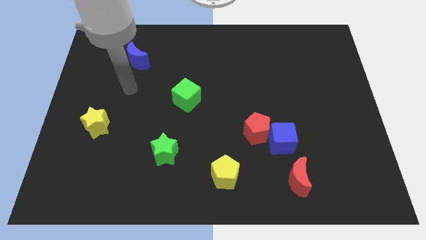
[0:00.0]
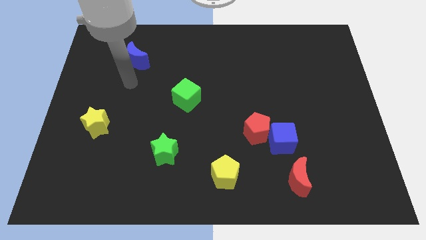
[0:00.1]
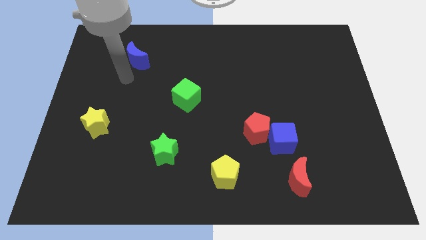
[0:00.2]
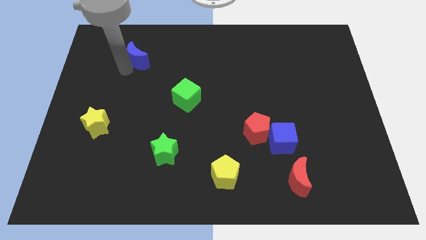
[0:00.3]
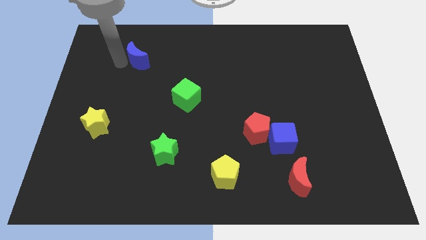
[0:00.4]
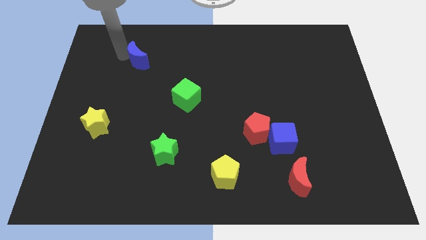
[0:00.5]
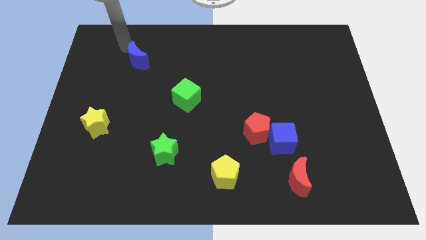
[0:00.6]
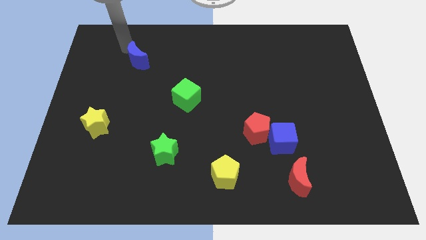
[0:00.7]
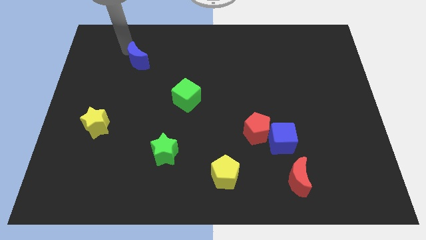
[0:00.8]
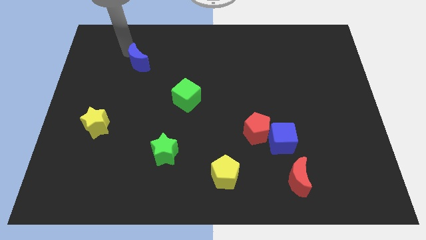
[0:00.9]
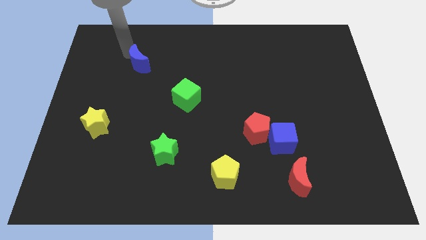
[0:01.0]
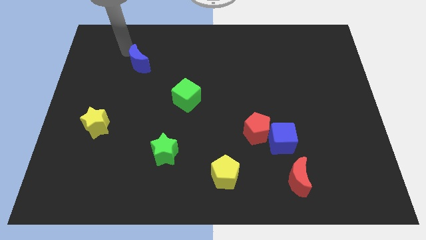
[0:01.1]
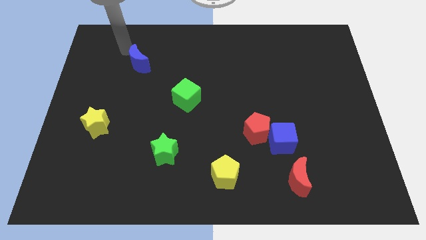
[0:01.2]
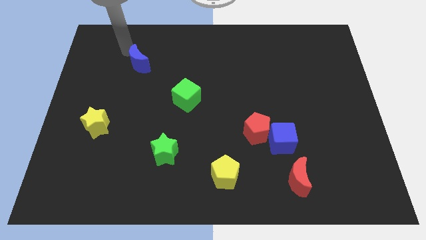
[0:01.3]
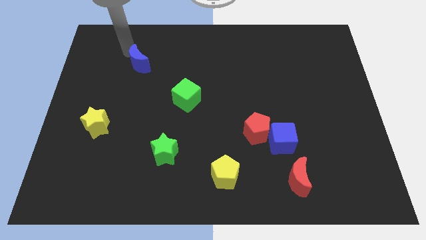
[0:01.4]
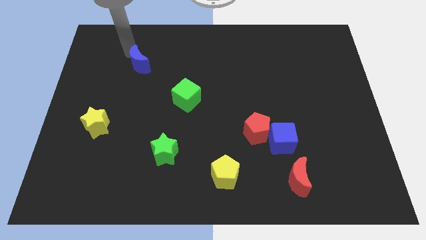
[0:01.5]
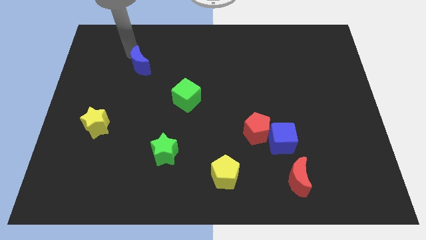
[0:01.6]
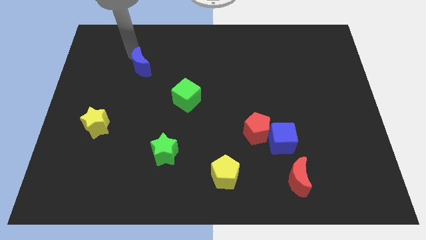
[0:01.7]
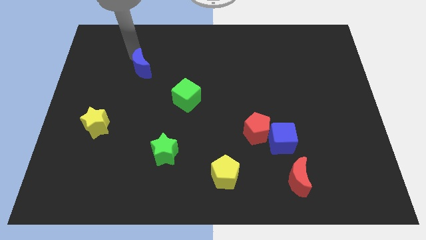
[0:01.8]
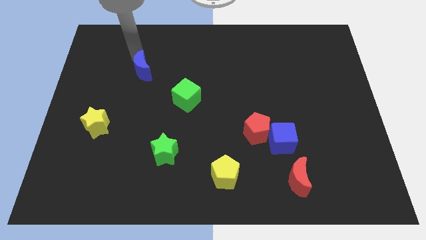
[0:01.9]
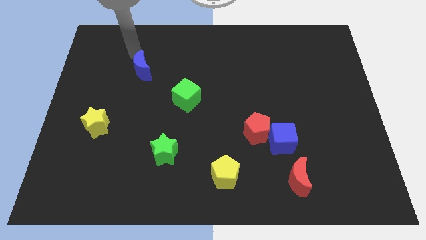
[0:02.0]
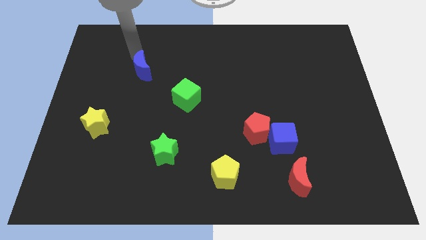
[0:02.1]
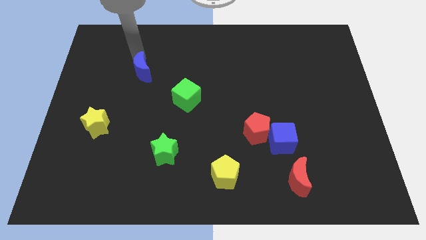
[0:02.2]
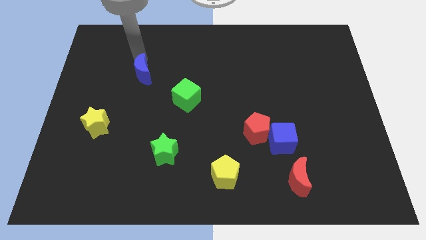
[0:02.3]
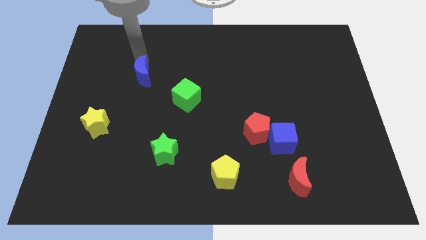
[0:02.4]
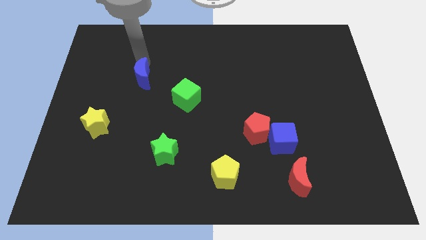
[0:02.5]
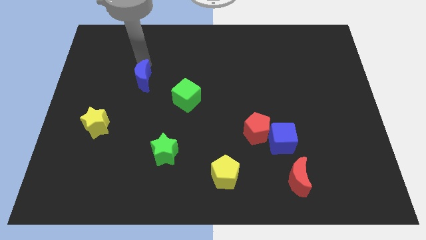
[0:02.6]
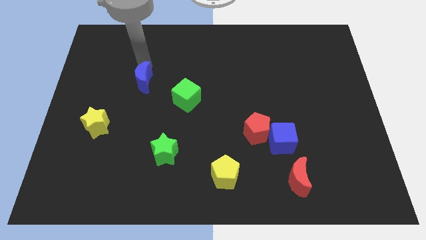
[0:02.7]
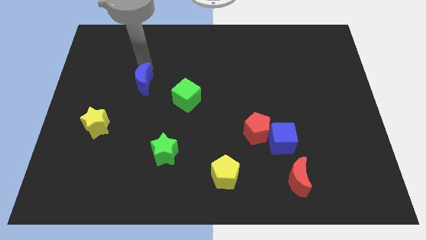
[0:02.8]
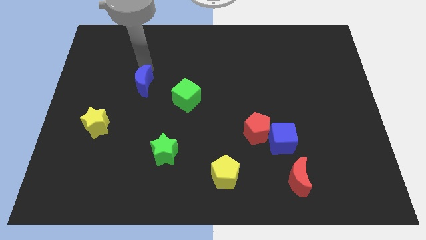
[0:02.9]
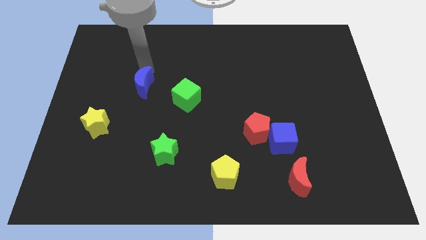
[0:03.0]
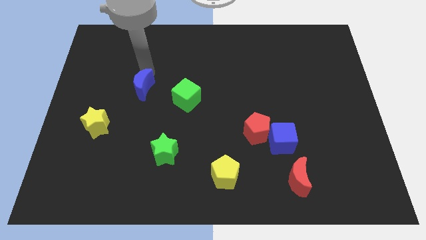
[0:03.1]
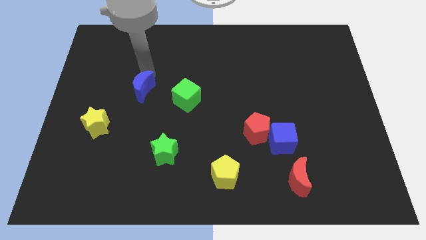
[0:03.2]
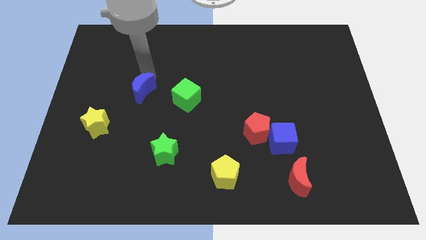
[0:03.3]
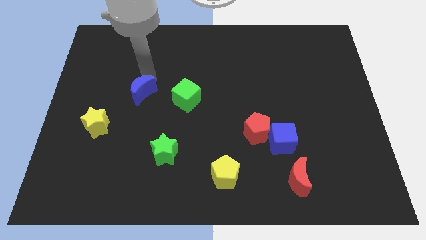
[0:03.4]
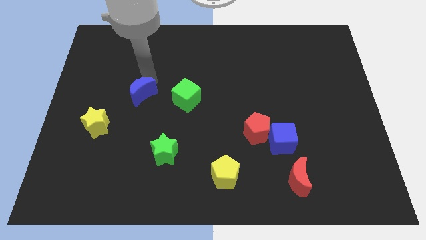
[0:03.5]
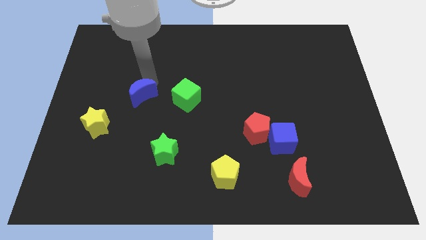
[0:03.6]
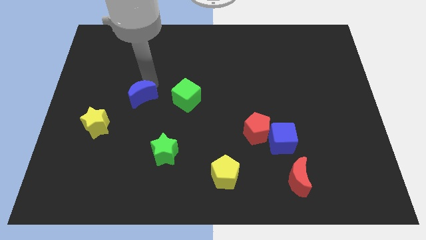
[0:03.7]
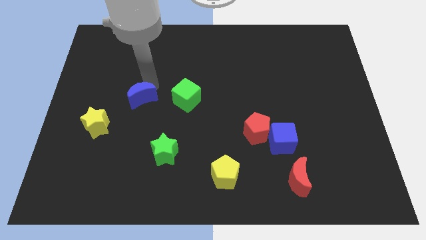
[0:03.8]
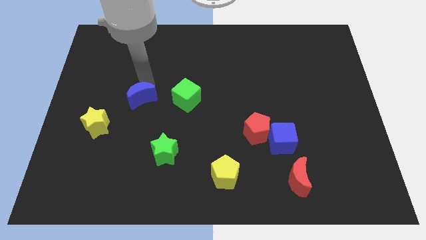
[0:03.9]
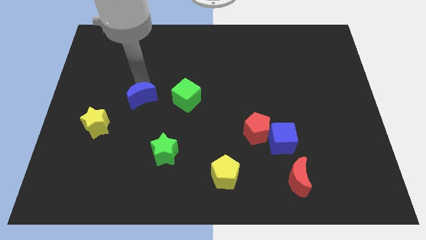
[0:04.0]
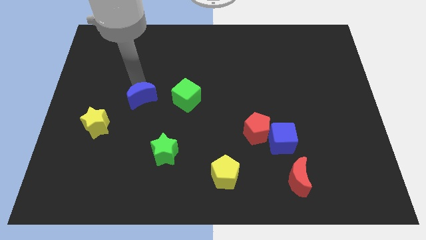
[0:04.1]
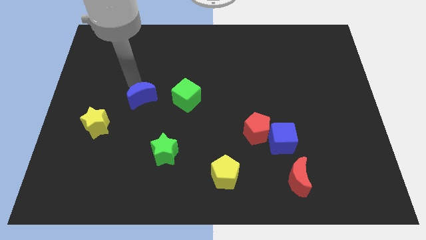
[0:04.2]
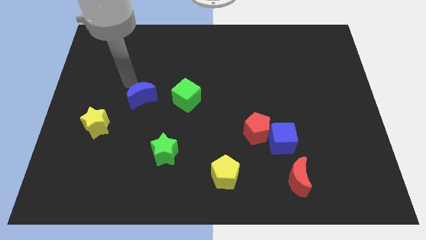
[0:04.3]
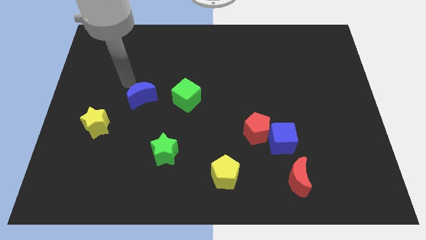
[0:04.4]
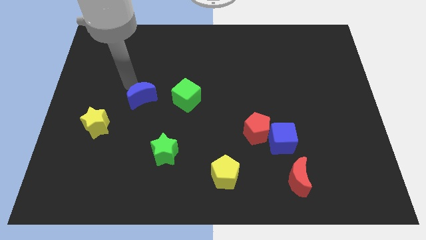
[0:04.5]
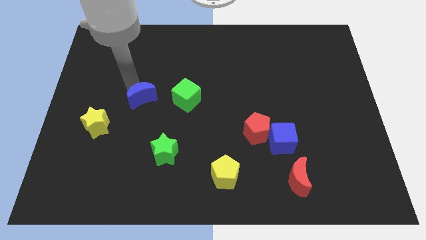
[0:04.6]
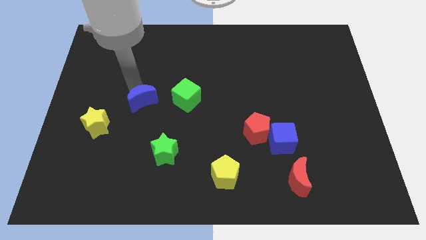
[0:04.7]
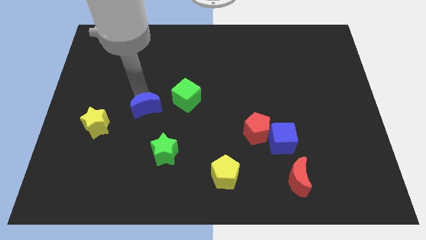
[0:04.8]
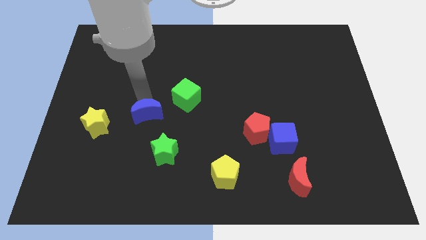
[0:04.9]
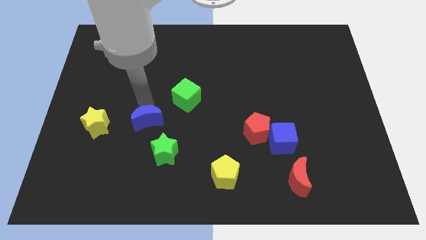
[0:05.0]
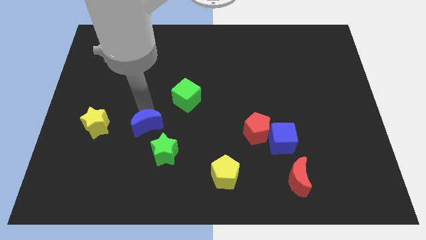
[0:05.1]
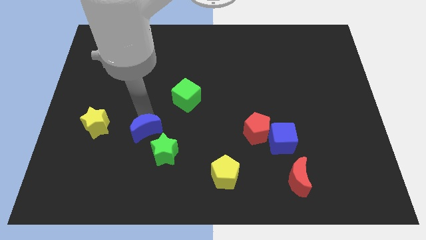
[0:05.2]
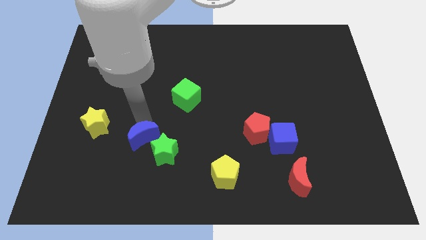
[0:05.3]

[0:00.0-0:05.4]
put the blue moon to the green star

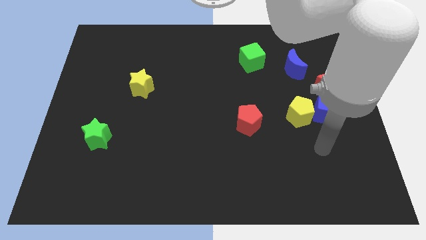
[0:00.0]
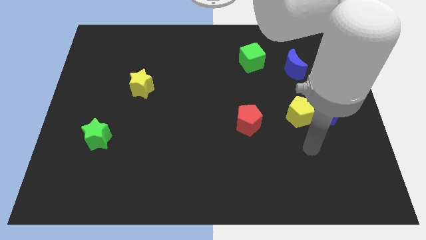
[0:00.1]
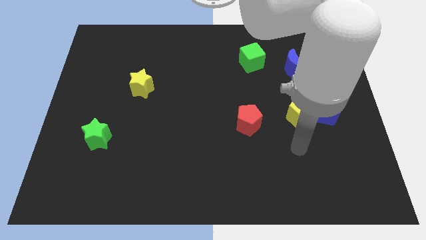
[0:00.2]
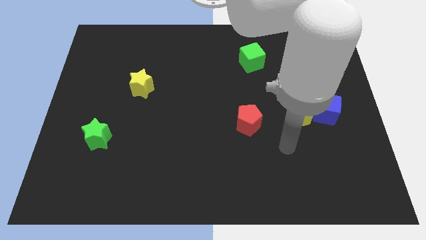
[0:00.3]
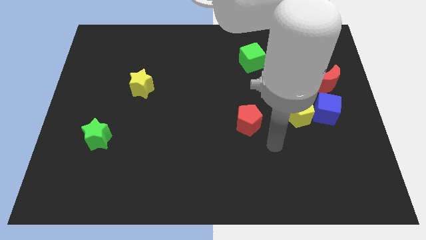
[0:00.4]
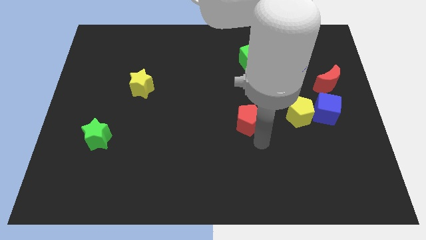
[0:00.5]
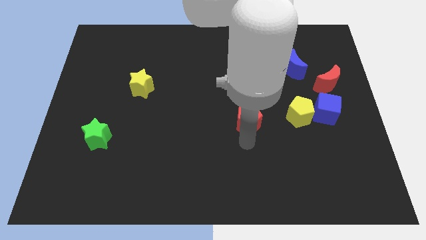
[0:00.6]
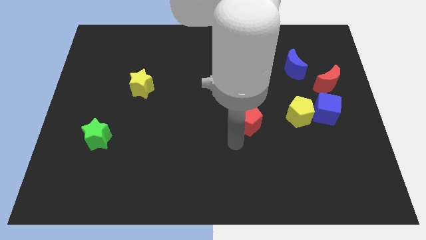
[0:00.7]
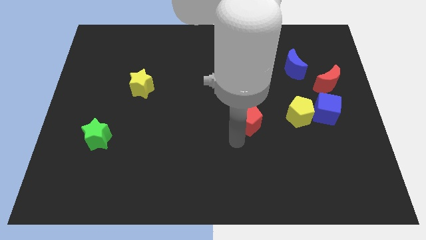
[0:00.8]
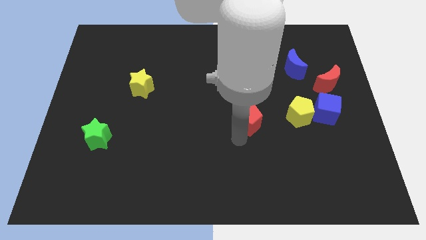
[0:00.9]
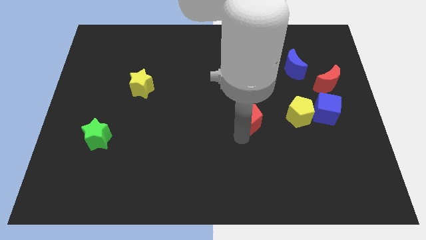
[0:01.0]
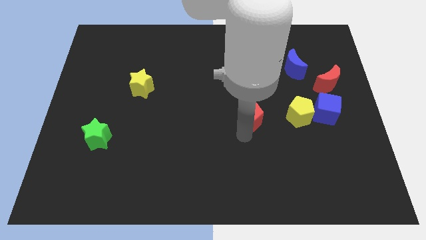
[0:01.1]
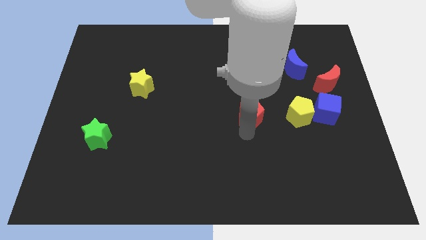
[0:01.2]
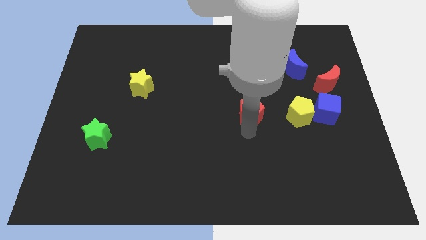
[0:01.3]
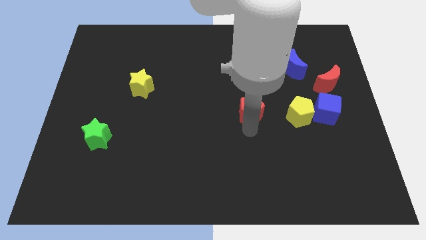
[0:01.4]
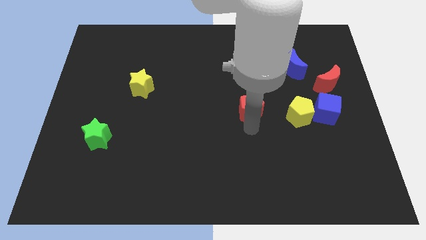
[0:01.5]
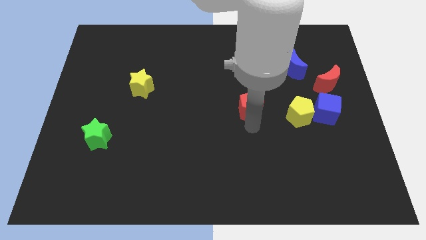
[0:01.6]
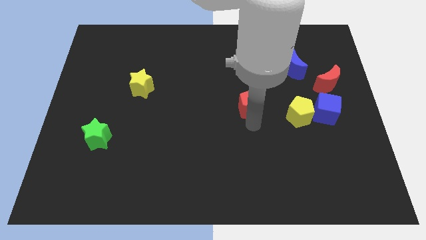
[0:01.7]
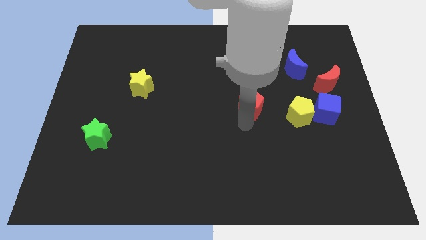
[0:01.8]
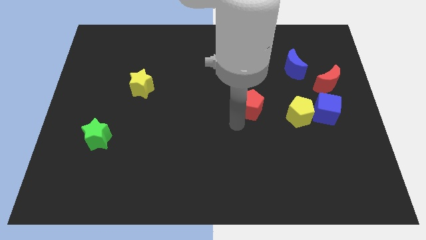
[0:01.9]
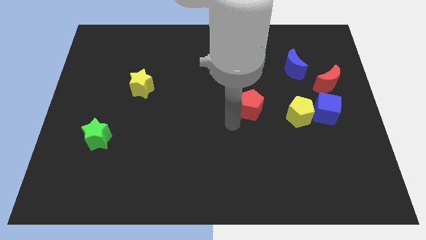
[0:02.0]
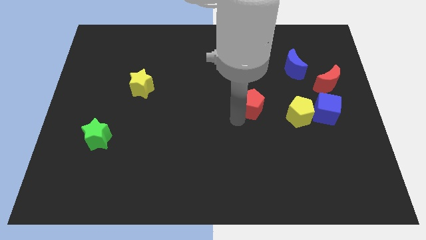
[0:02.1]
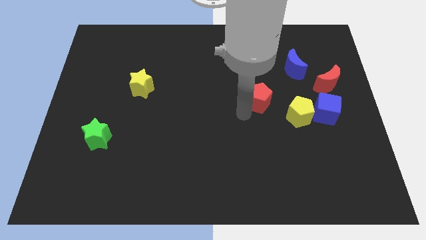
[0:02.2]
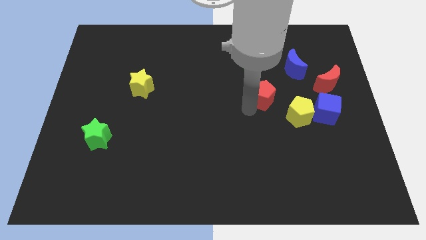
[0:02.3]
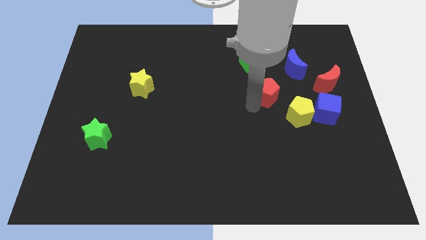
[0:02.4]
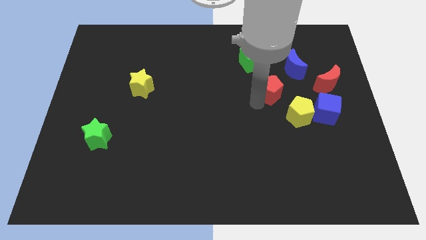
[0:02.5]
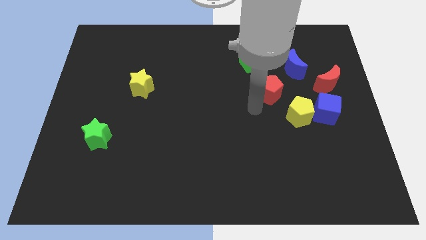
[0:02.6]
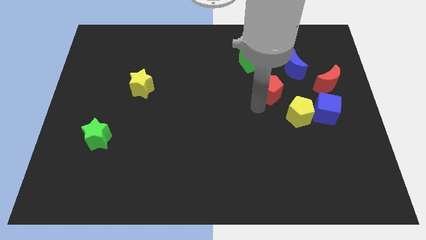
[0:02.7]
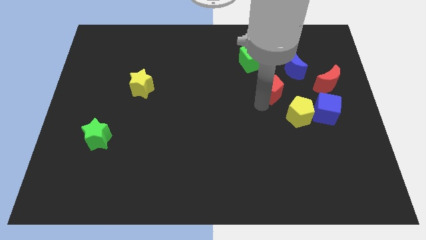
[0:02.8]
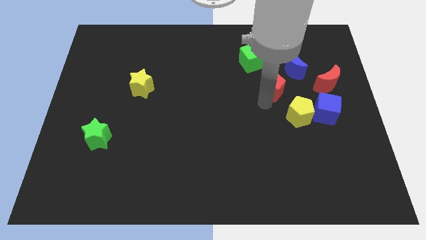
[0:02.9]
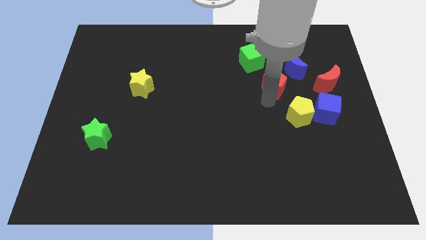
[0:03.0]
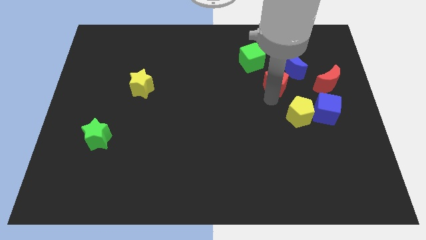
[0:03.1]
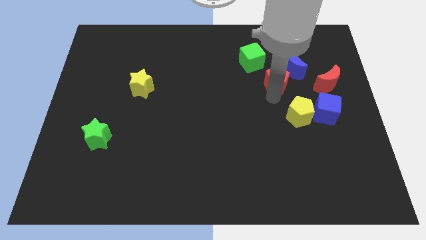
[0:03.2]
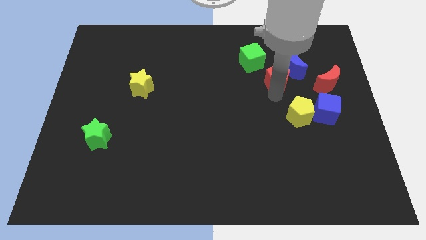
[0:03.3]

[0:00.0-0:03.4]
slide the red pentagon towards the blue moon
